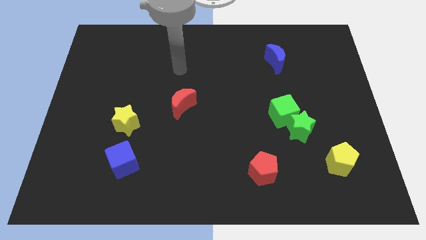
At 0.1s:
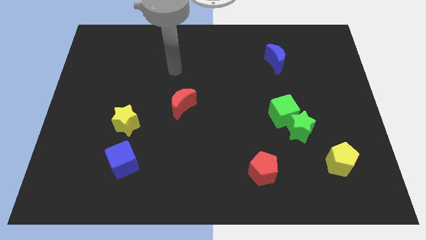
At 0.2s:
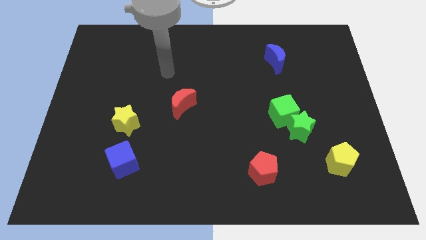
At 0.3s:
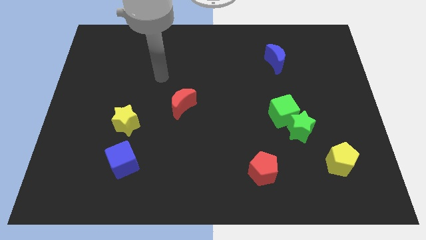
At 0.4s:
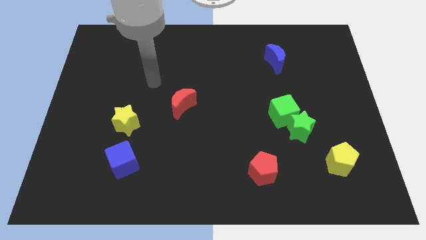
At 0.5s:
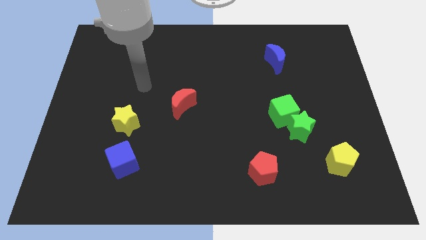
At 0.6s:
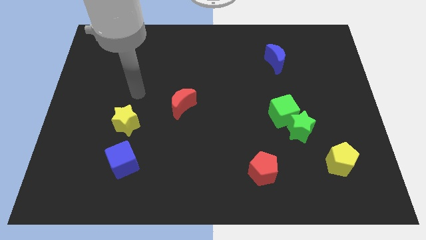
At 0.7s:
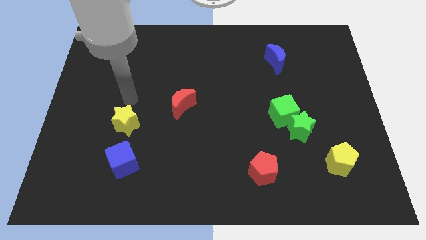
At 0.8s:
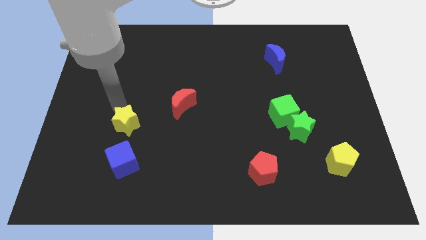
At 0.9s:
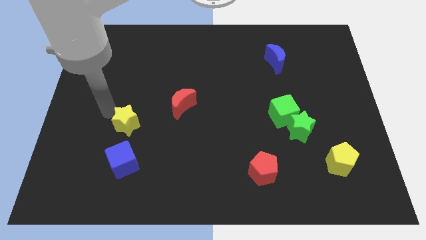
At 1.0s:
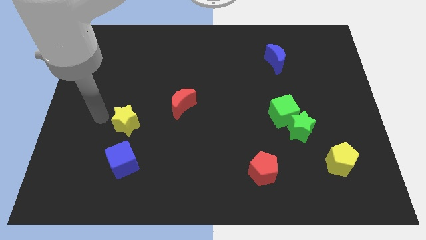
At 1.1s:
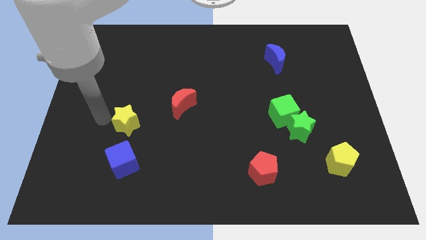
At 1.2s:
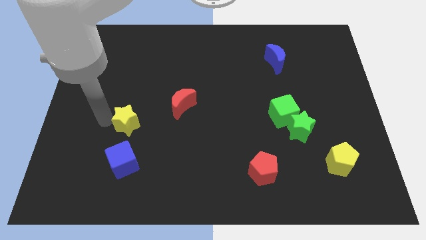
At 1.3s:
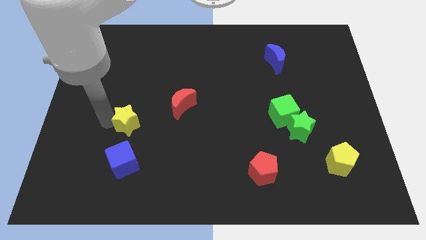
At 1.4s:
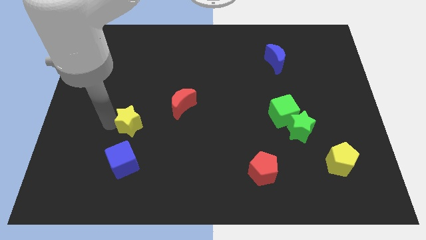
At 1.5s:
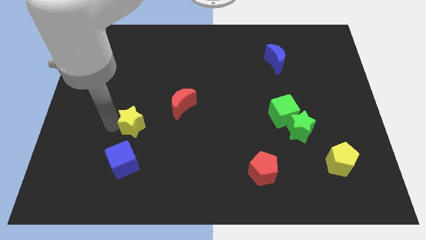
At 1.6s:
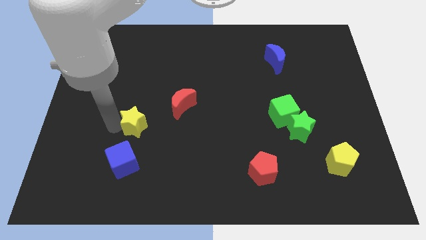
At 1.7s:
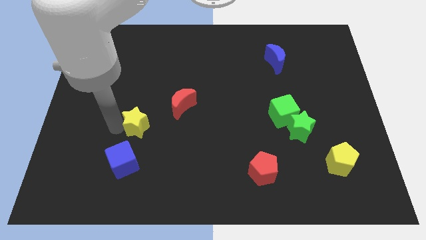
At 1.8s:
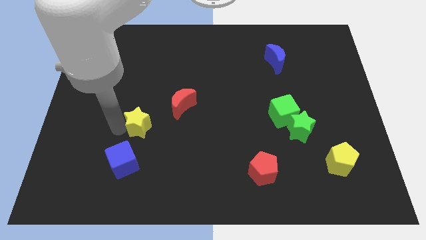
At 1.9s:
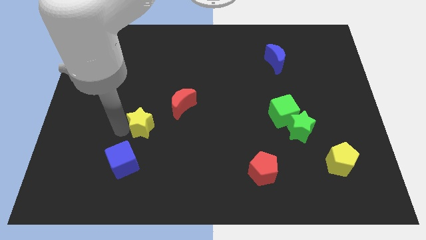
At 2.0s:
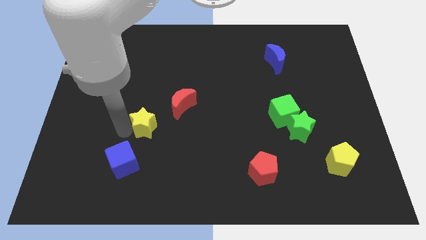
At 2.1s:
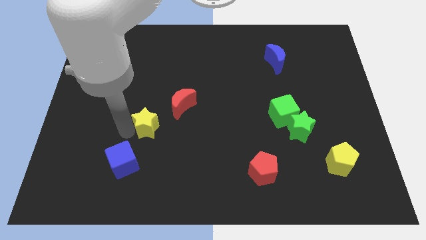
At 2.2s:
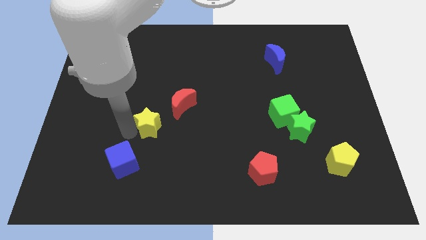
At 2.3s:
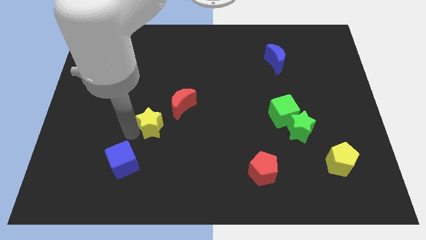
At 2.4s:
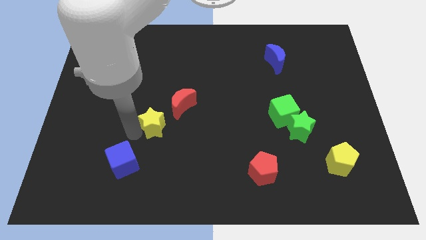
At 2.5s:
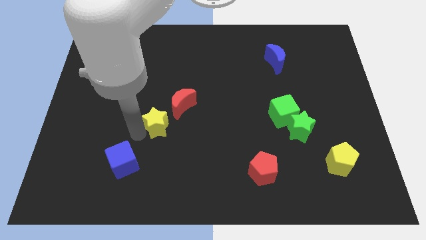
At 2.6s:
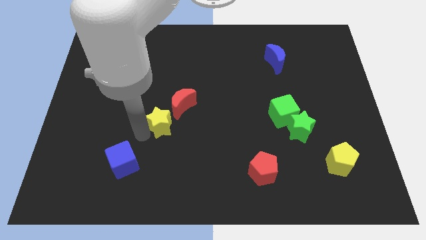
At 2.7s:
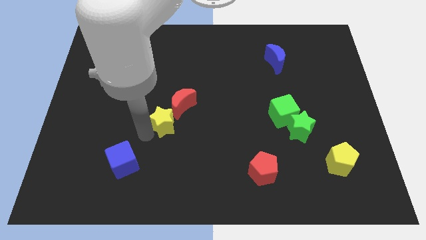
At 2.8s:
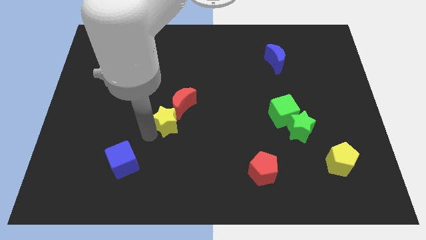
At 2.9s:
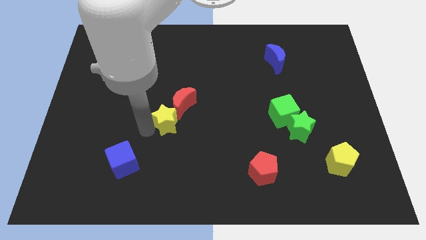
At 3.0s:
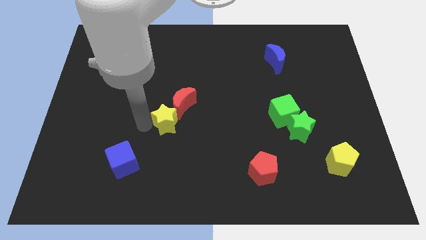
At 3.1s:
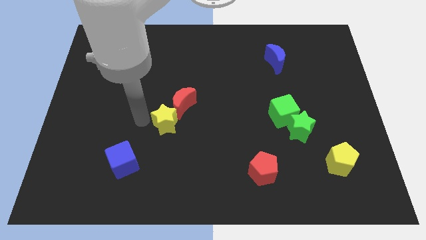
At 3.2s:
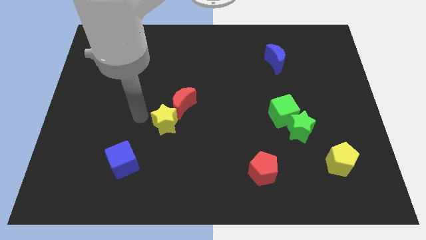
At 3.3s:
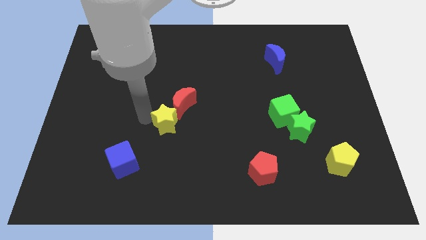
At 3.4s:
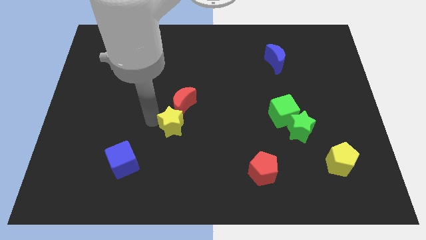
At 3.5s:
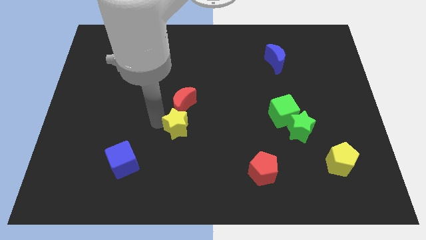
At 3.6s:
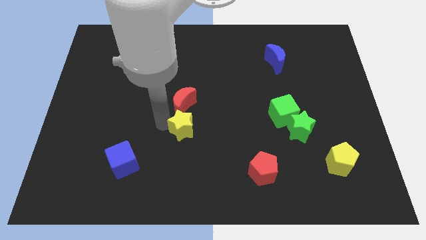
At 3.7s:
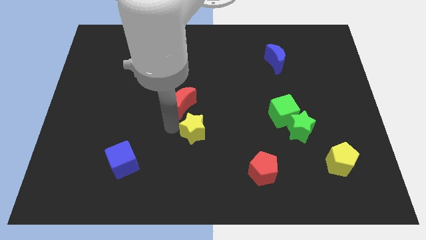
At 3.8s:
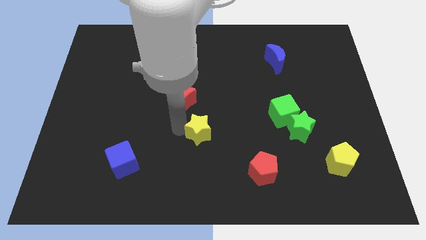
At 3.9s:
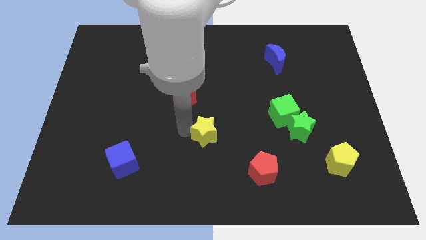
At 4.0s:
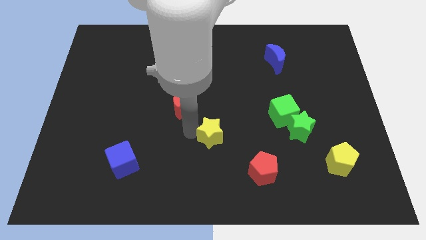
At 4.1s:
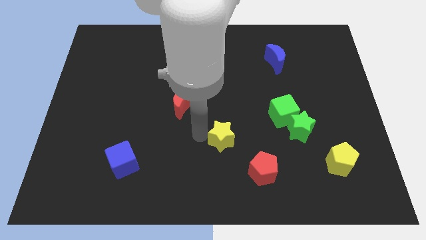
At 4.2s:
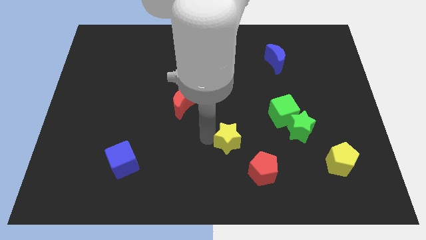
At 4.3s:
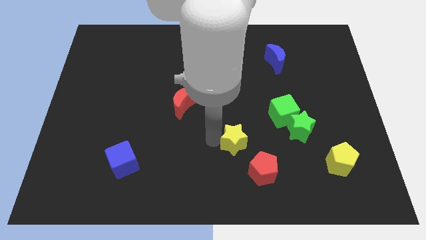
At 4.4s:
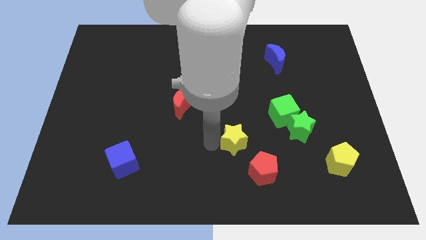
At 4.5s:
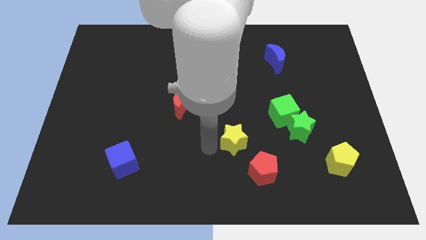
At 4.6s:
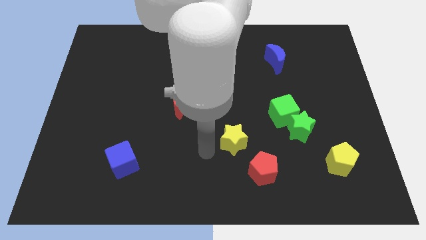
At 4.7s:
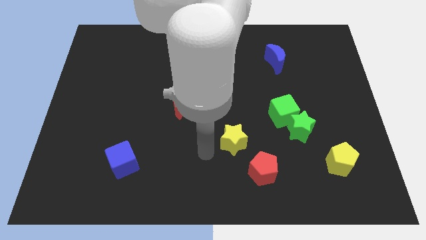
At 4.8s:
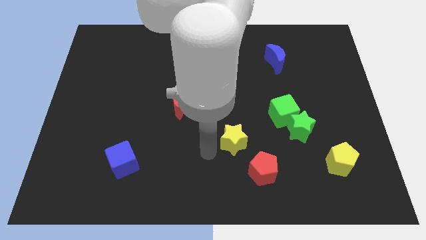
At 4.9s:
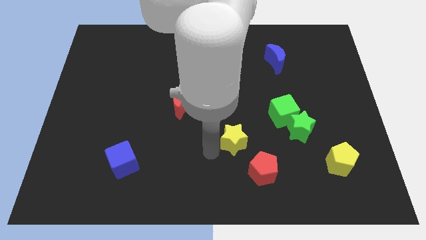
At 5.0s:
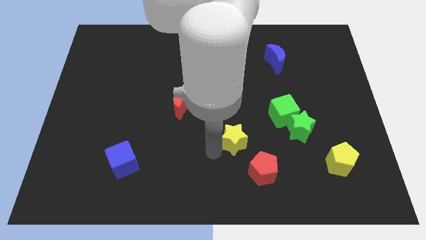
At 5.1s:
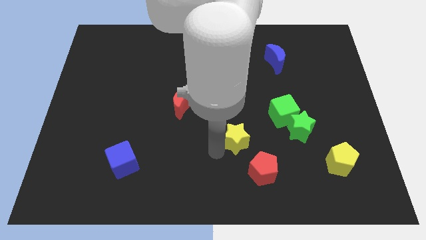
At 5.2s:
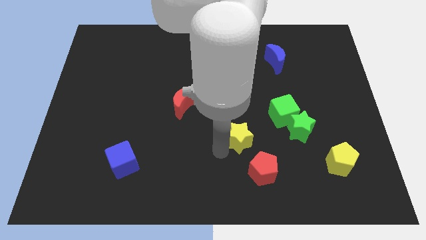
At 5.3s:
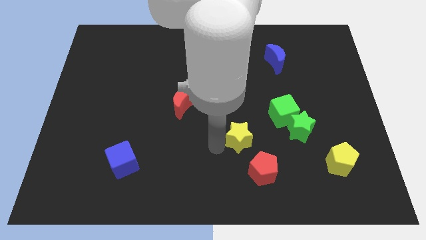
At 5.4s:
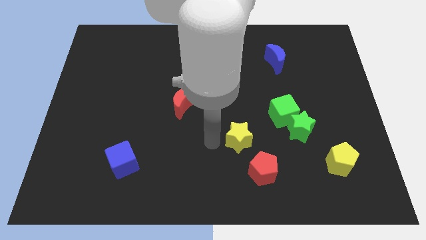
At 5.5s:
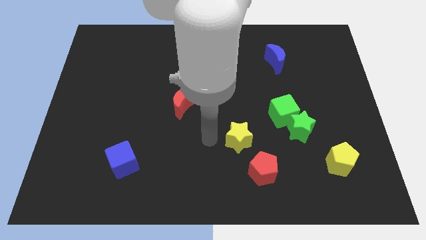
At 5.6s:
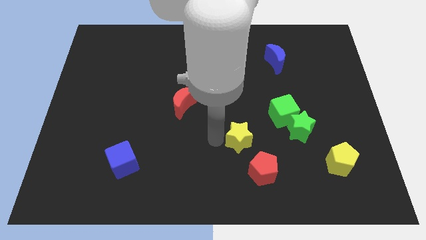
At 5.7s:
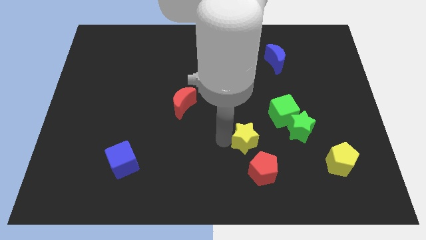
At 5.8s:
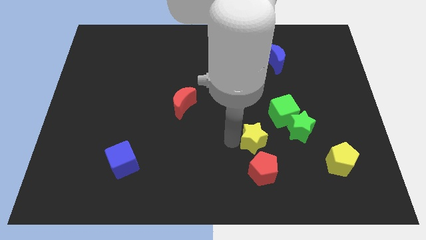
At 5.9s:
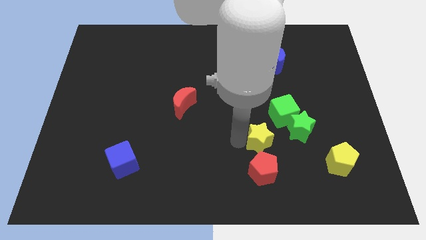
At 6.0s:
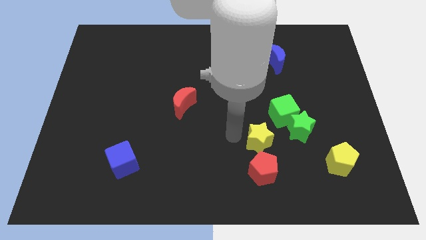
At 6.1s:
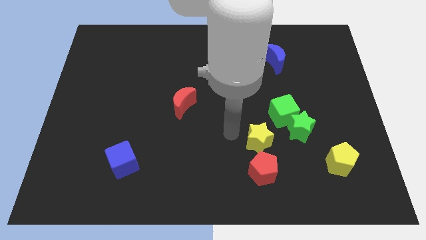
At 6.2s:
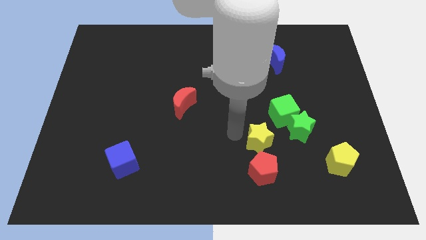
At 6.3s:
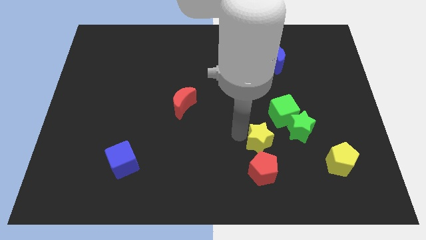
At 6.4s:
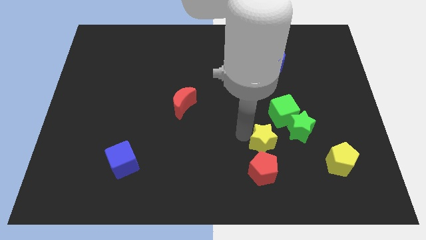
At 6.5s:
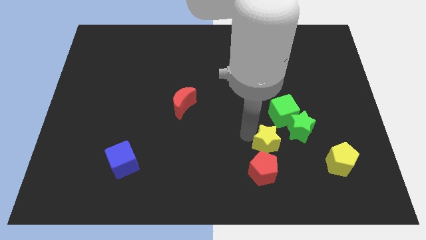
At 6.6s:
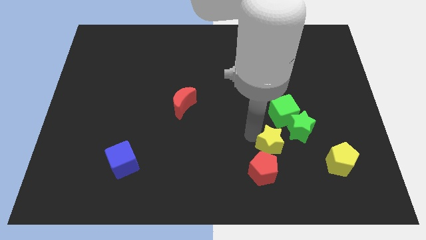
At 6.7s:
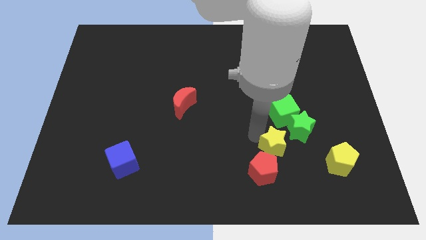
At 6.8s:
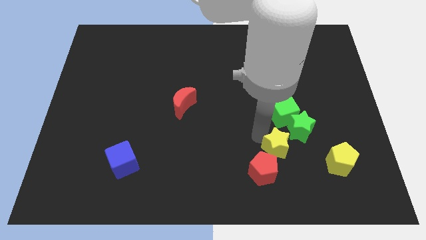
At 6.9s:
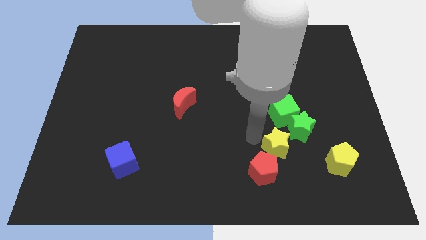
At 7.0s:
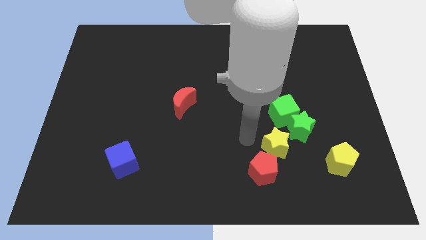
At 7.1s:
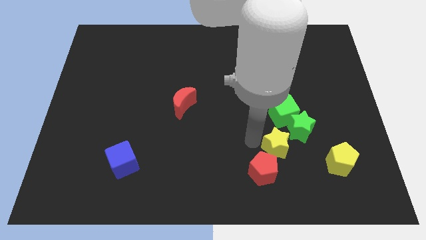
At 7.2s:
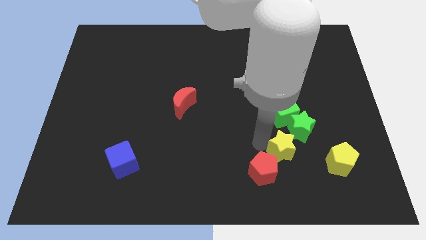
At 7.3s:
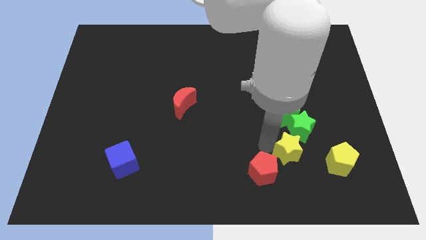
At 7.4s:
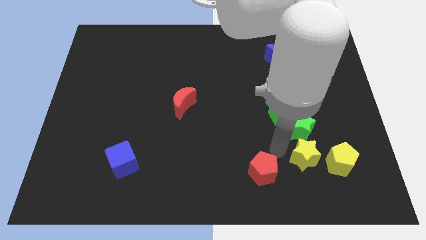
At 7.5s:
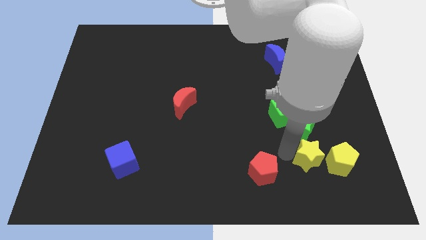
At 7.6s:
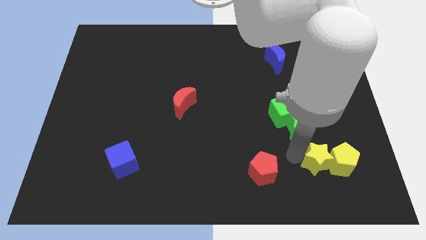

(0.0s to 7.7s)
slide the yellow star to the yellow pentagon
